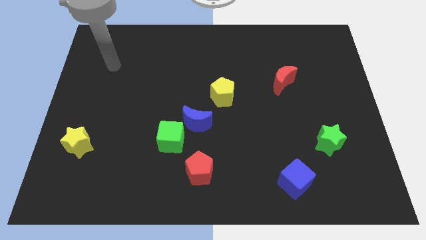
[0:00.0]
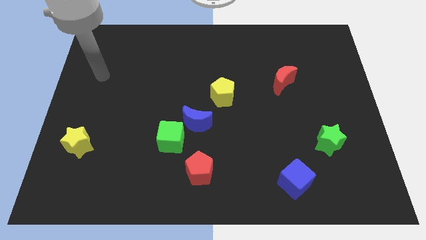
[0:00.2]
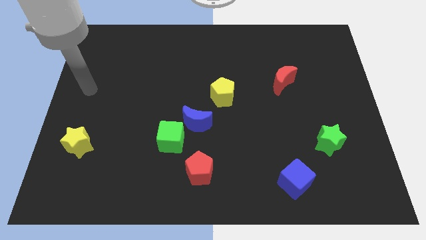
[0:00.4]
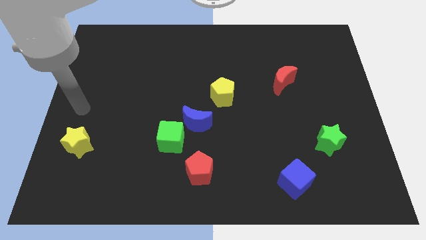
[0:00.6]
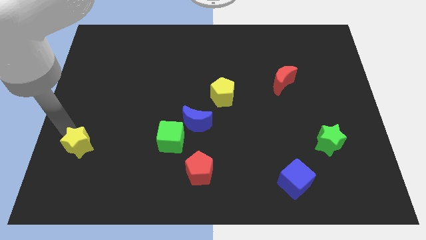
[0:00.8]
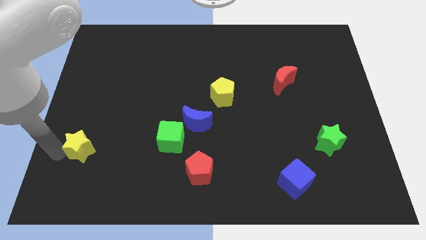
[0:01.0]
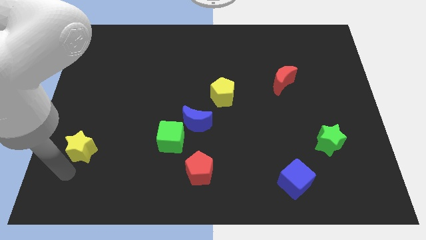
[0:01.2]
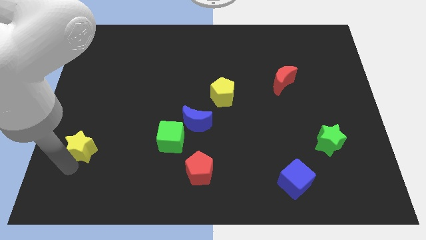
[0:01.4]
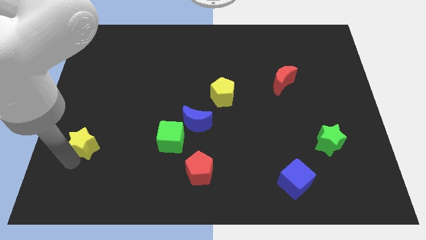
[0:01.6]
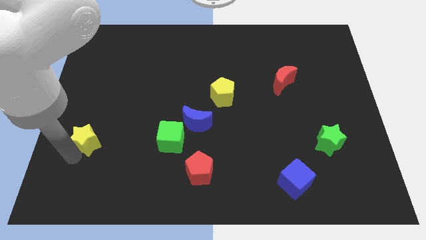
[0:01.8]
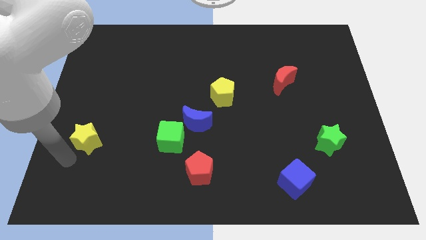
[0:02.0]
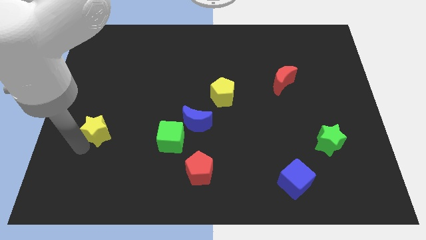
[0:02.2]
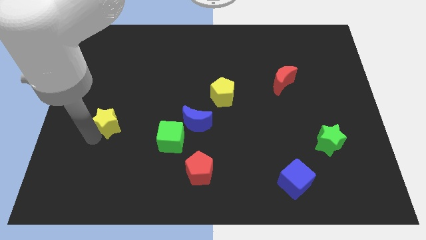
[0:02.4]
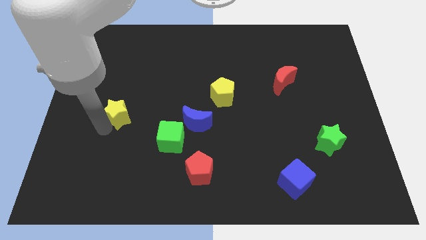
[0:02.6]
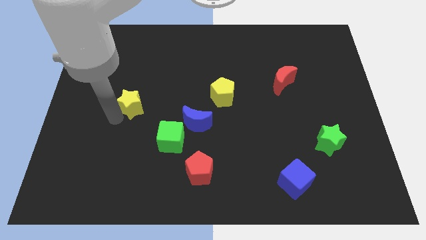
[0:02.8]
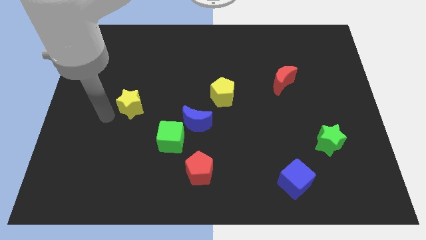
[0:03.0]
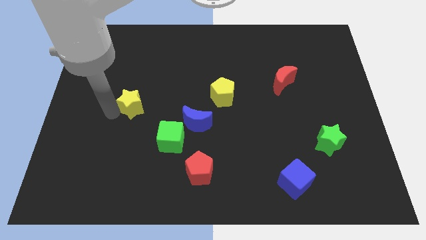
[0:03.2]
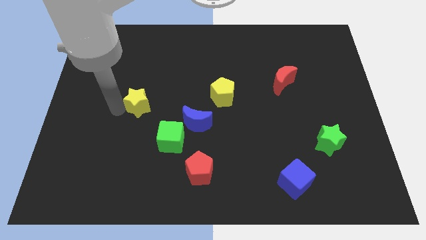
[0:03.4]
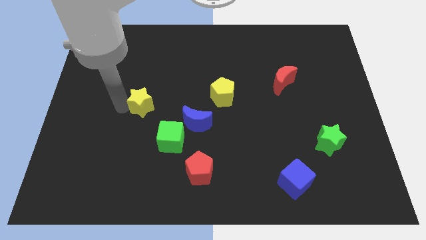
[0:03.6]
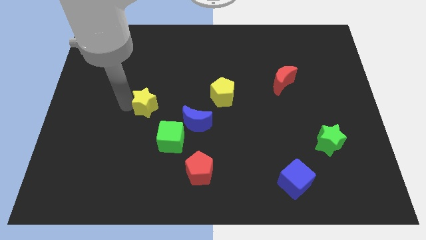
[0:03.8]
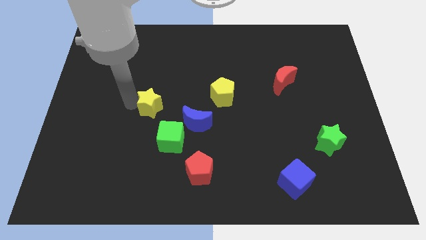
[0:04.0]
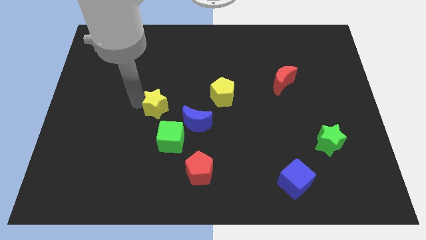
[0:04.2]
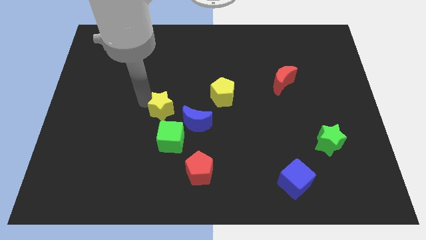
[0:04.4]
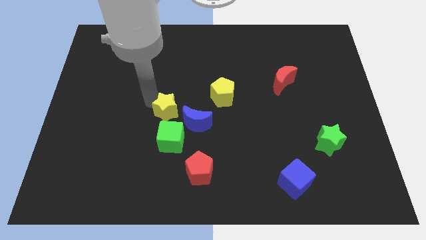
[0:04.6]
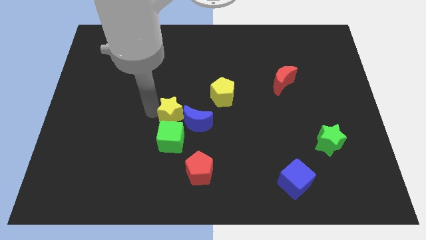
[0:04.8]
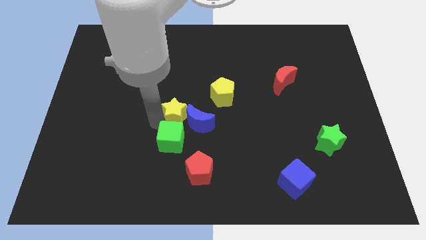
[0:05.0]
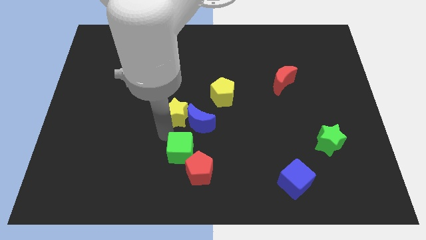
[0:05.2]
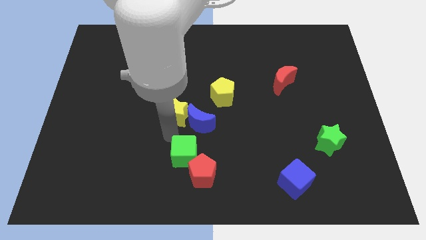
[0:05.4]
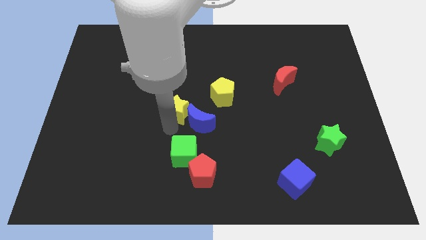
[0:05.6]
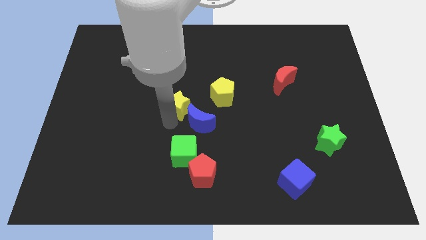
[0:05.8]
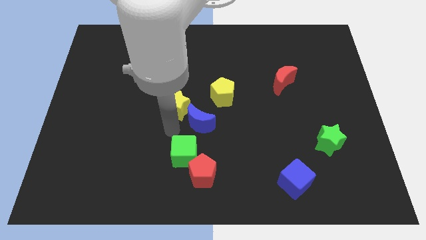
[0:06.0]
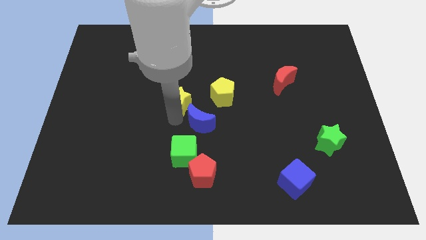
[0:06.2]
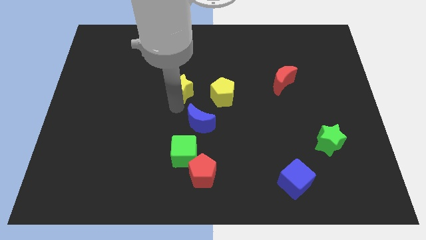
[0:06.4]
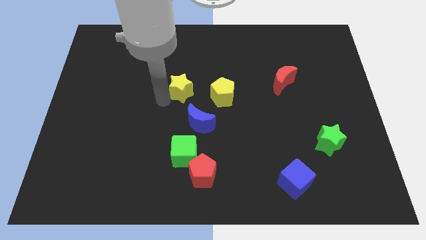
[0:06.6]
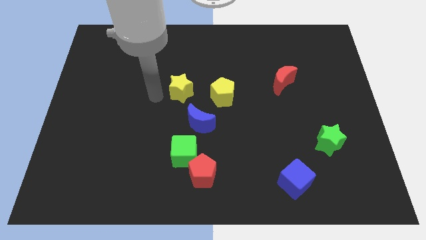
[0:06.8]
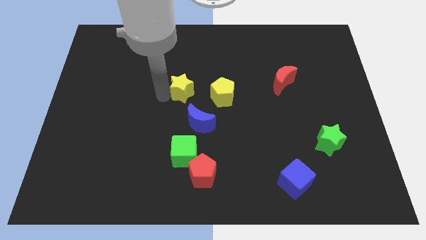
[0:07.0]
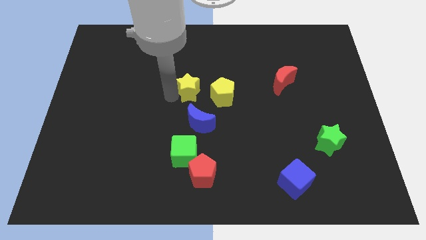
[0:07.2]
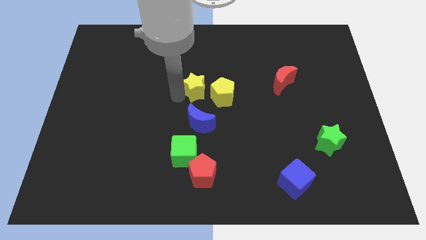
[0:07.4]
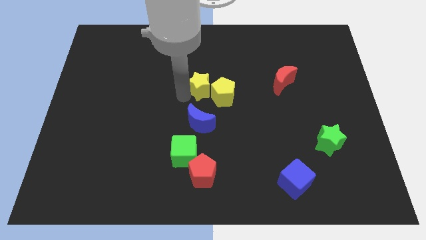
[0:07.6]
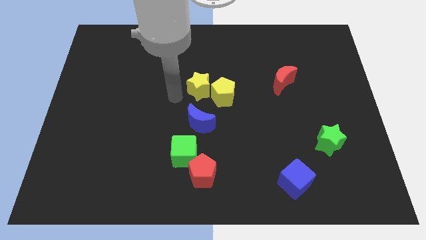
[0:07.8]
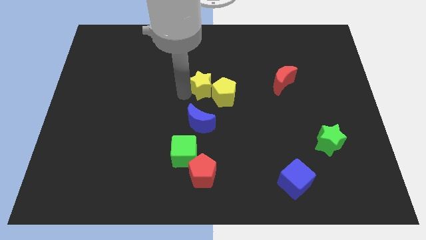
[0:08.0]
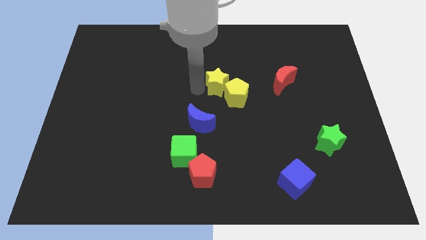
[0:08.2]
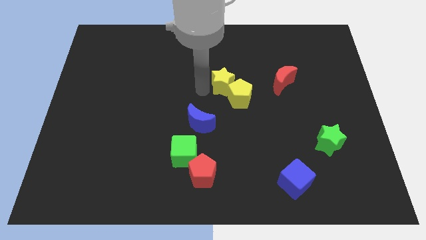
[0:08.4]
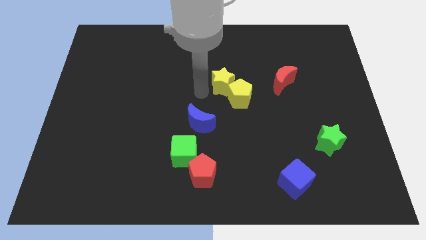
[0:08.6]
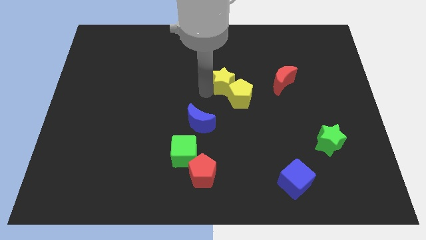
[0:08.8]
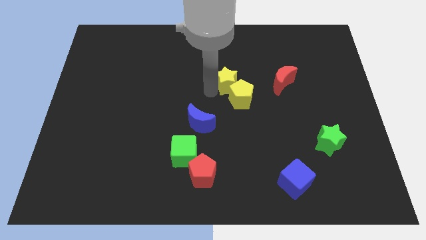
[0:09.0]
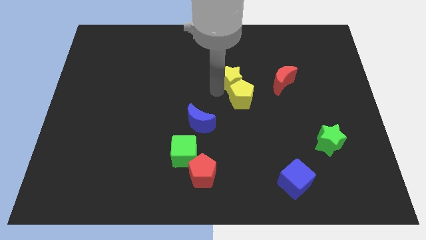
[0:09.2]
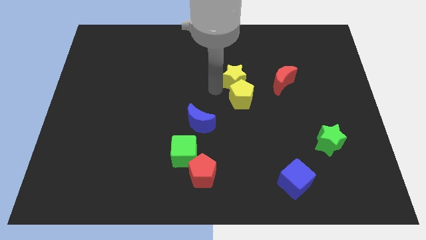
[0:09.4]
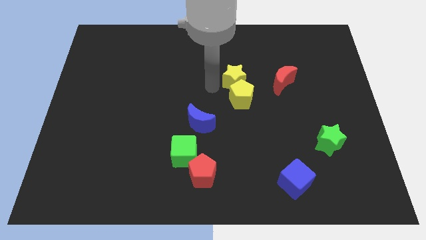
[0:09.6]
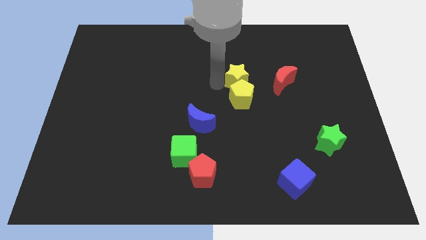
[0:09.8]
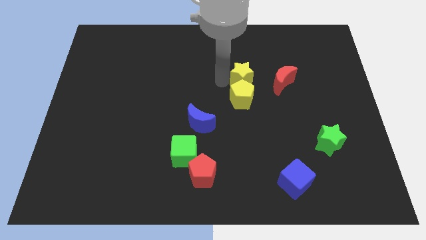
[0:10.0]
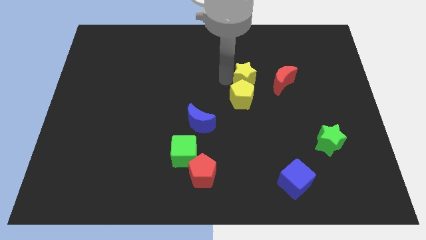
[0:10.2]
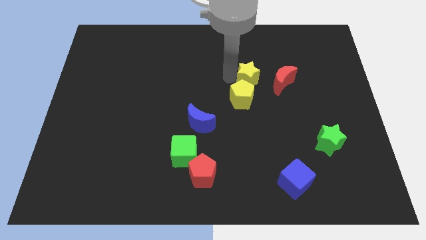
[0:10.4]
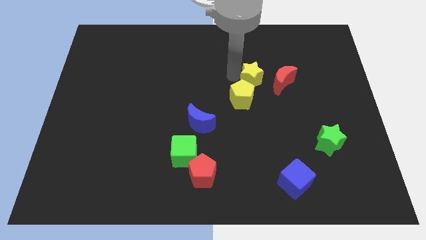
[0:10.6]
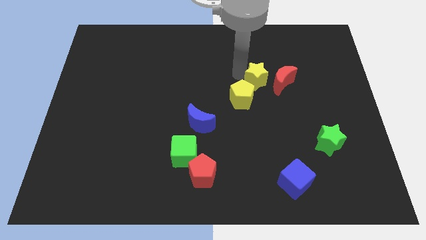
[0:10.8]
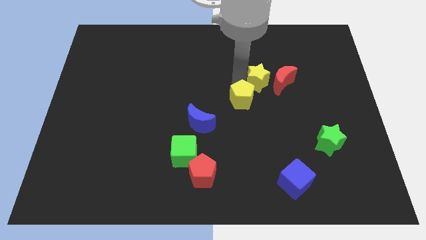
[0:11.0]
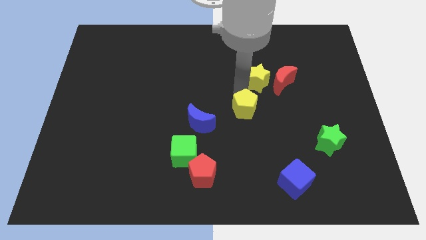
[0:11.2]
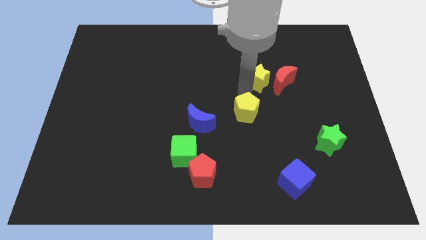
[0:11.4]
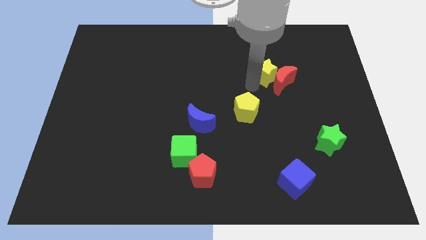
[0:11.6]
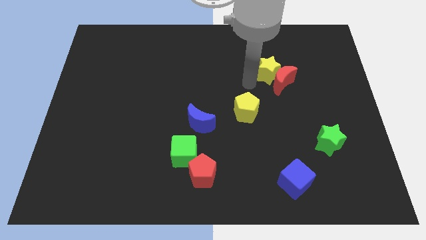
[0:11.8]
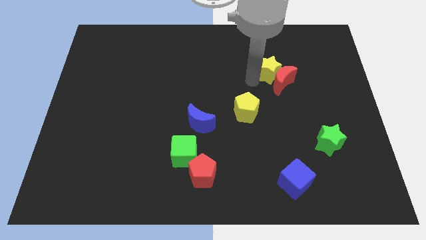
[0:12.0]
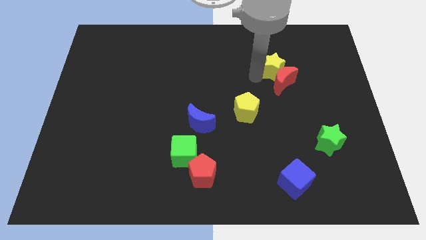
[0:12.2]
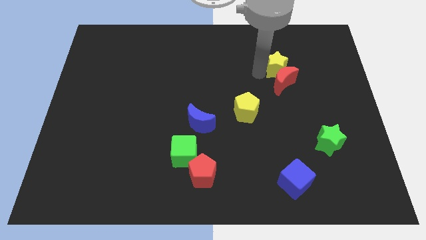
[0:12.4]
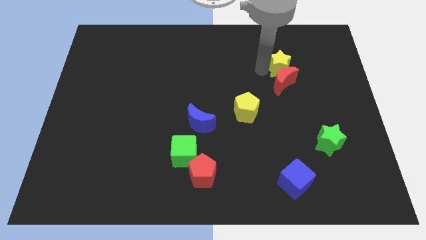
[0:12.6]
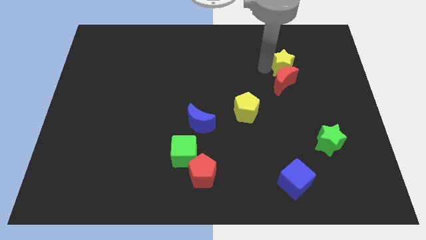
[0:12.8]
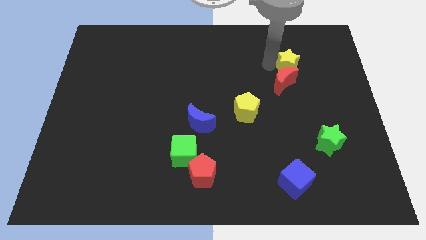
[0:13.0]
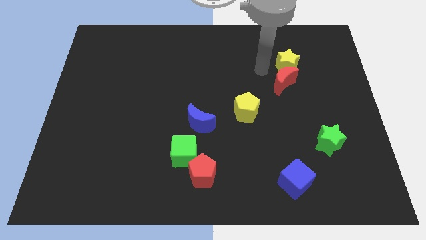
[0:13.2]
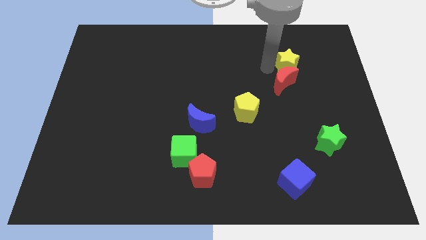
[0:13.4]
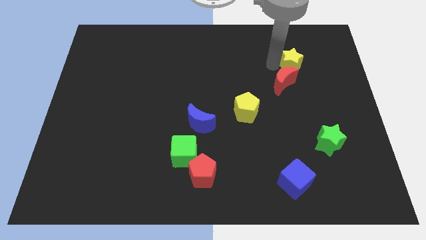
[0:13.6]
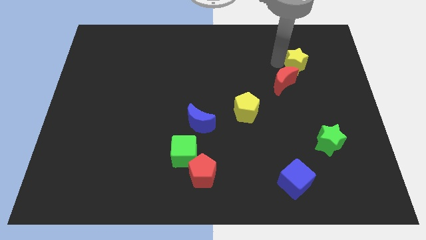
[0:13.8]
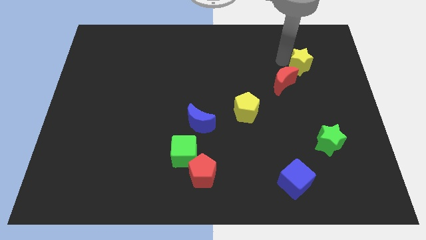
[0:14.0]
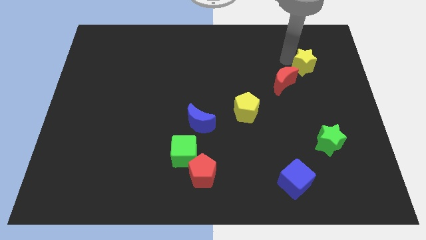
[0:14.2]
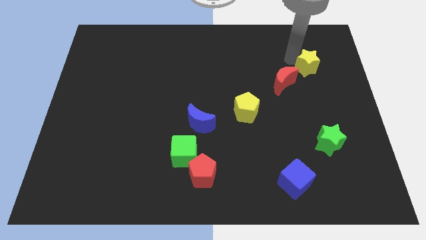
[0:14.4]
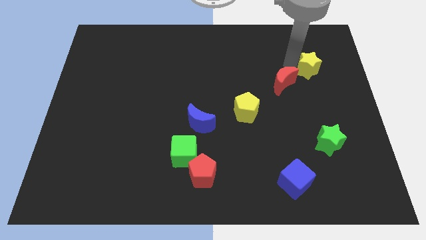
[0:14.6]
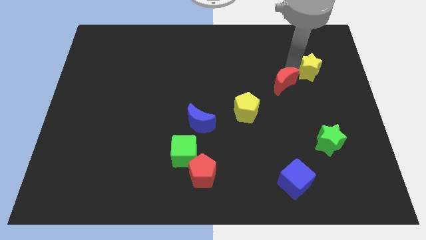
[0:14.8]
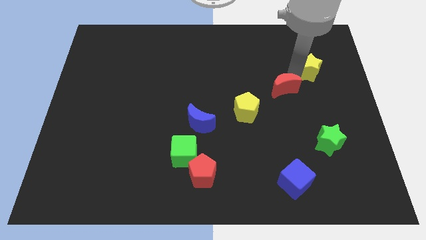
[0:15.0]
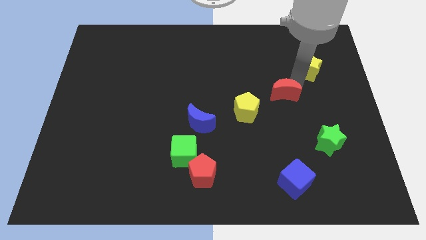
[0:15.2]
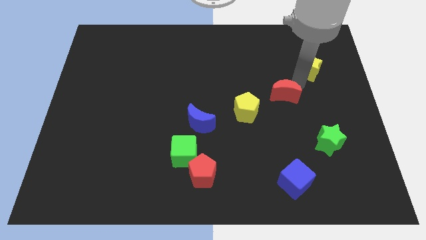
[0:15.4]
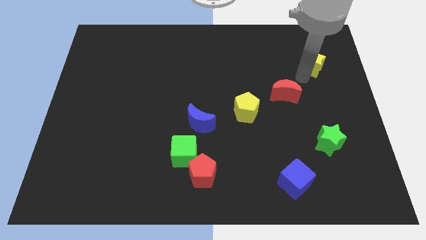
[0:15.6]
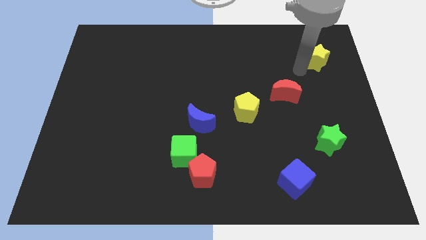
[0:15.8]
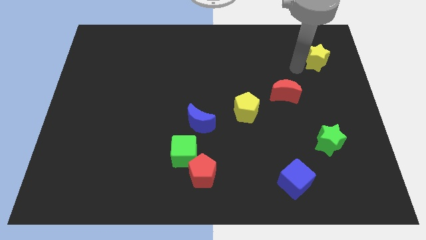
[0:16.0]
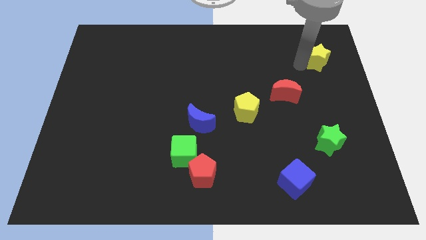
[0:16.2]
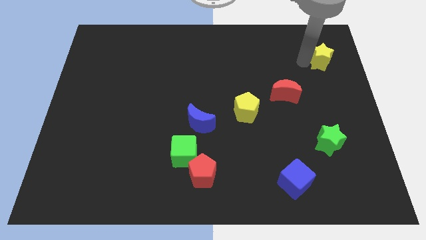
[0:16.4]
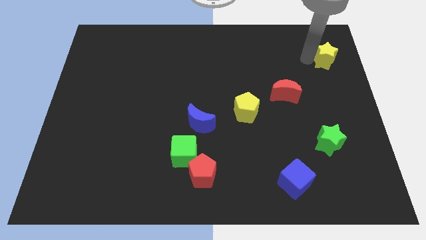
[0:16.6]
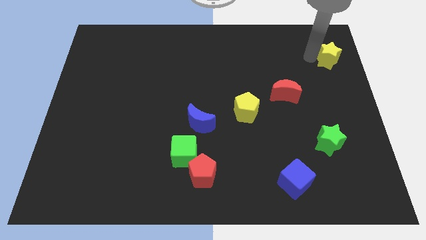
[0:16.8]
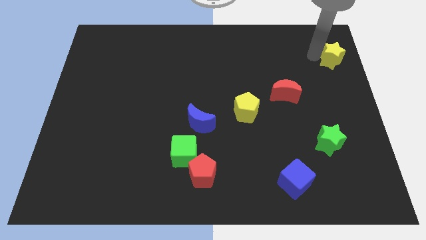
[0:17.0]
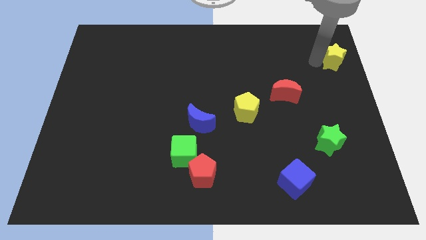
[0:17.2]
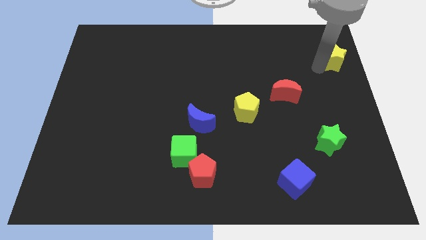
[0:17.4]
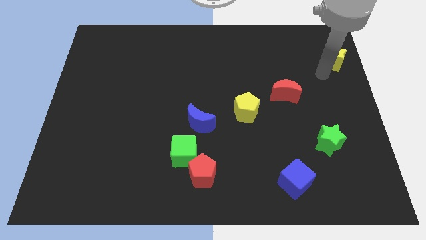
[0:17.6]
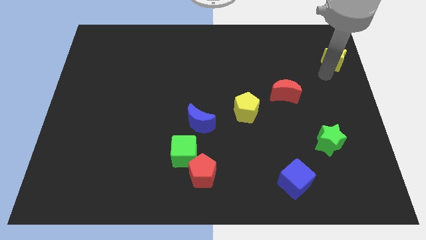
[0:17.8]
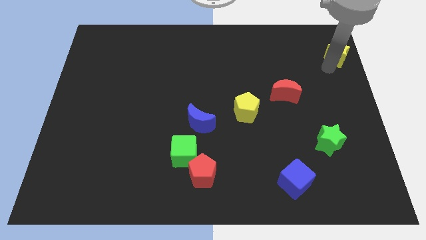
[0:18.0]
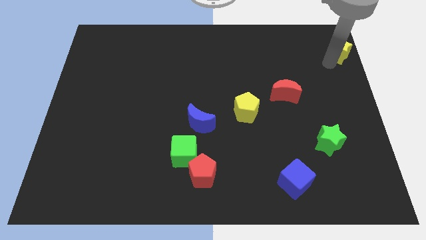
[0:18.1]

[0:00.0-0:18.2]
put the yellow star to the top right
